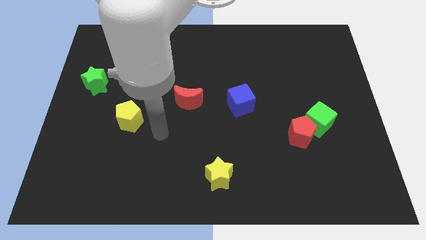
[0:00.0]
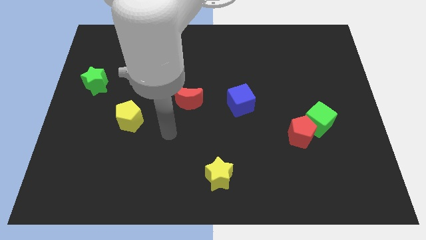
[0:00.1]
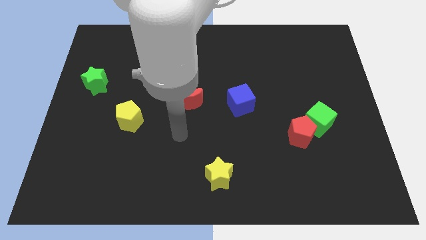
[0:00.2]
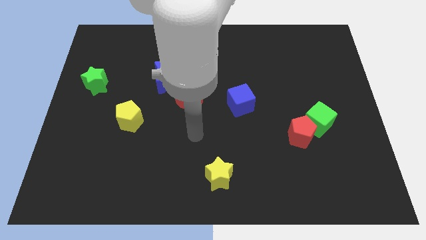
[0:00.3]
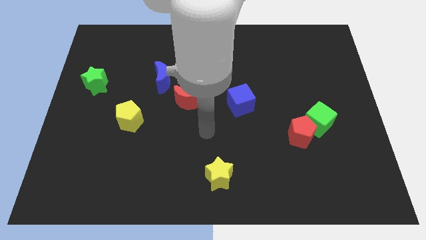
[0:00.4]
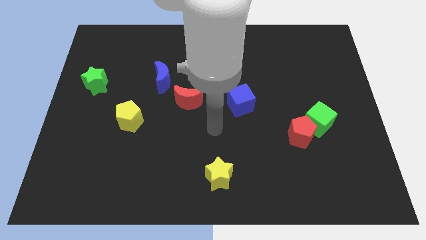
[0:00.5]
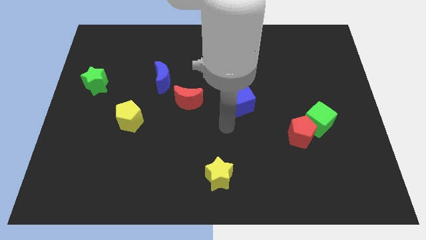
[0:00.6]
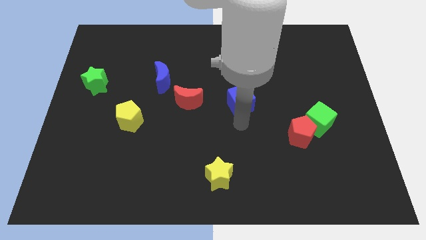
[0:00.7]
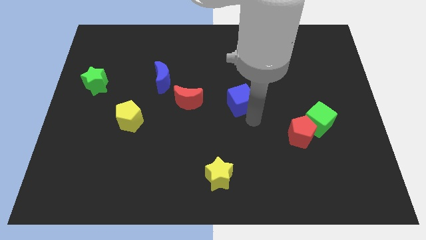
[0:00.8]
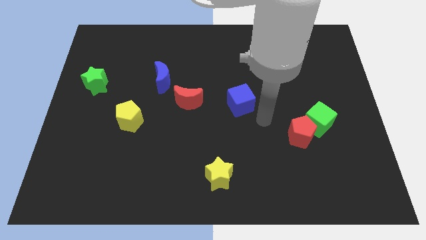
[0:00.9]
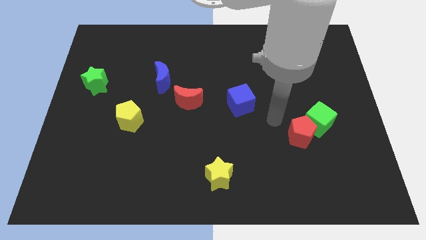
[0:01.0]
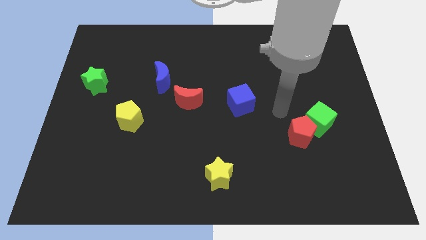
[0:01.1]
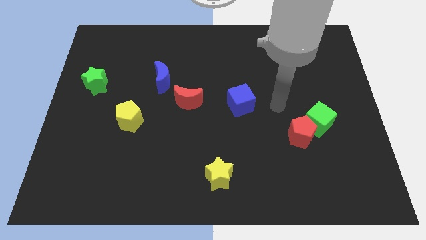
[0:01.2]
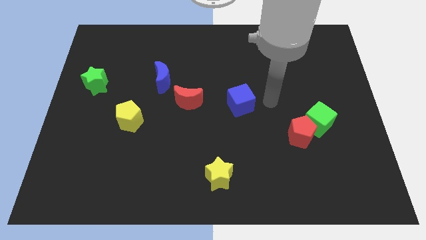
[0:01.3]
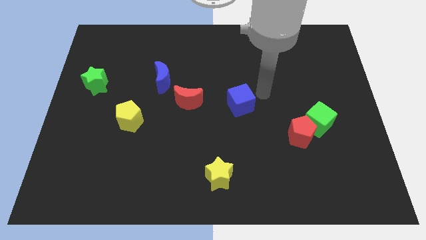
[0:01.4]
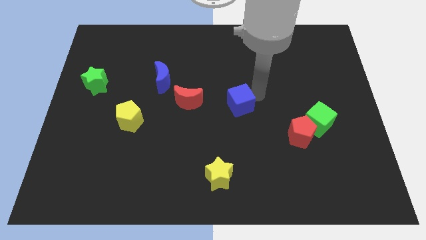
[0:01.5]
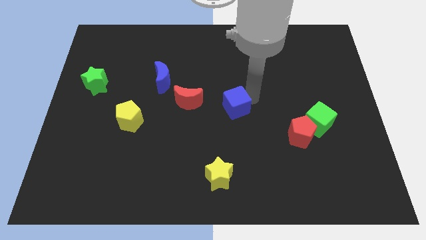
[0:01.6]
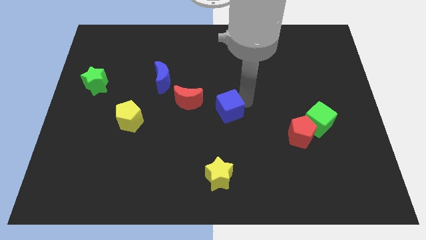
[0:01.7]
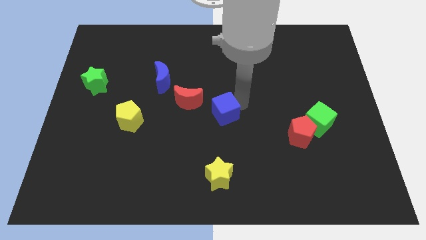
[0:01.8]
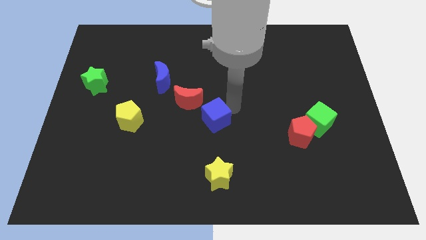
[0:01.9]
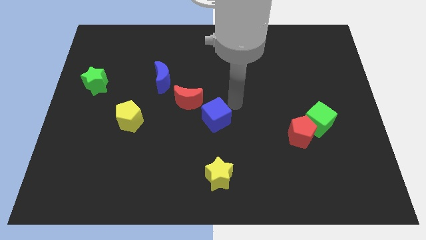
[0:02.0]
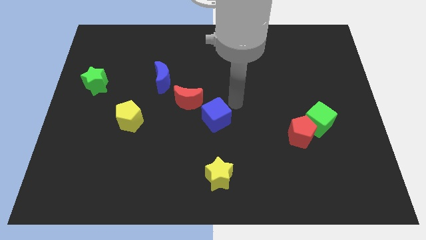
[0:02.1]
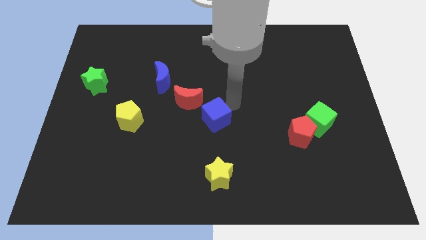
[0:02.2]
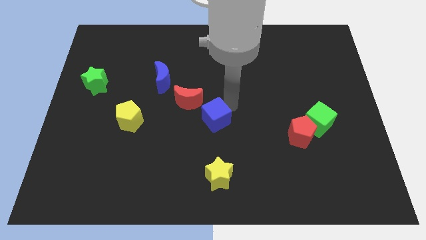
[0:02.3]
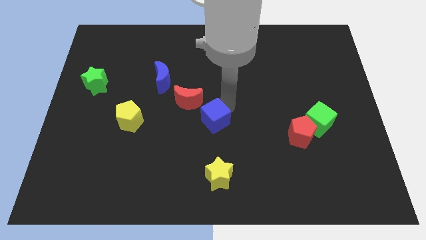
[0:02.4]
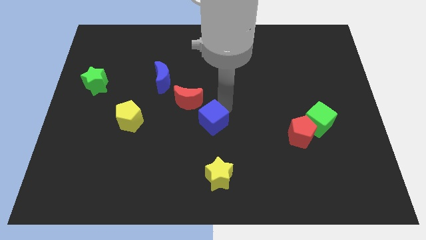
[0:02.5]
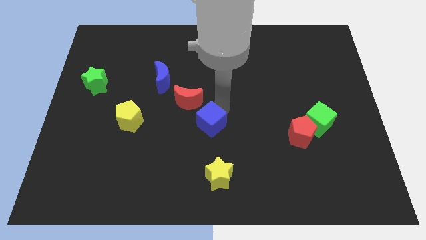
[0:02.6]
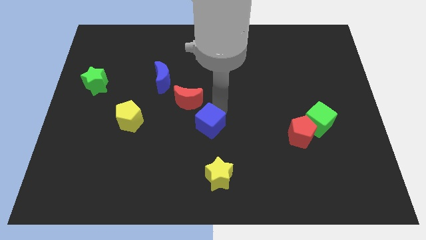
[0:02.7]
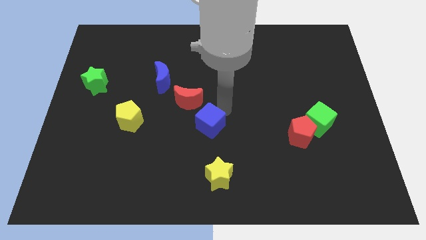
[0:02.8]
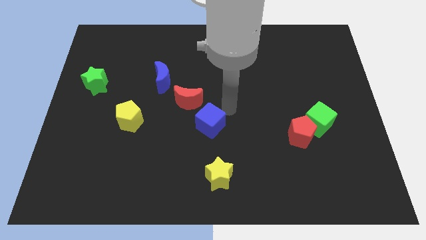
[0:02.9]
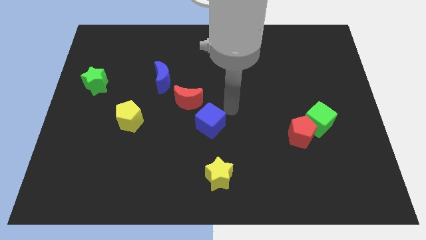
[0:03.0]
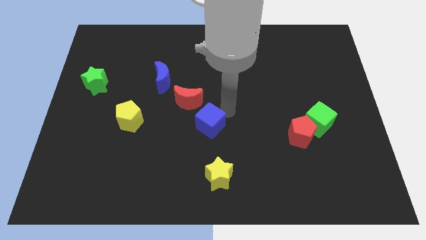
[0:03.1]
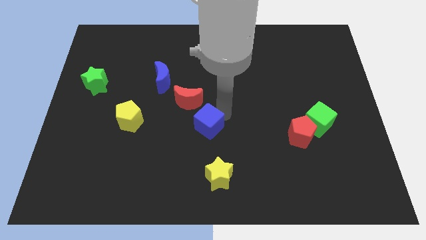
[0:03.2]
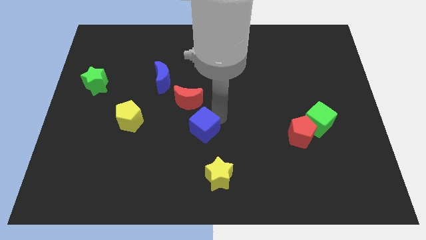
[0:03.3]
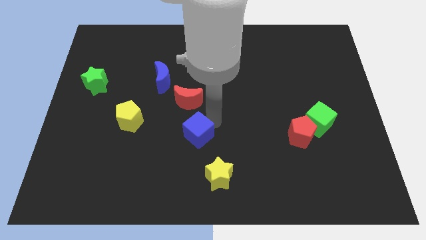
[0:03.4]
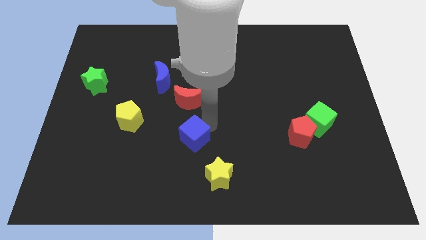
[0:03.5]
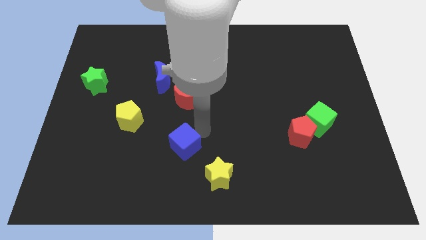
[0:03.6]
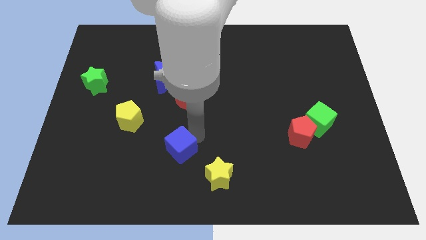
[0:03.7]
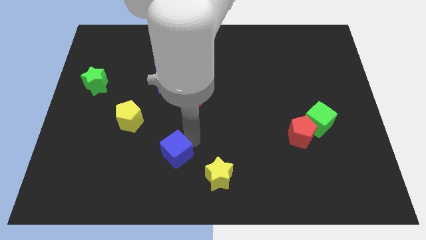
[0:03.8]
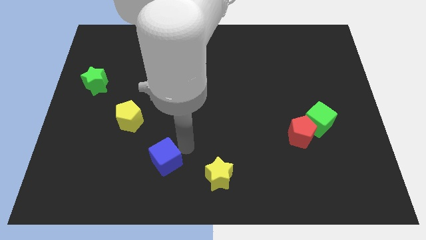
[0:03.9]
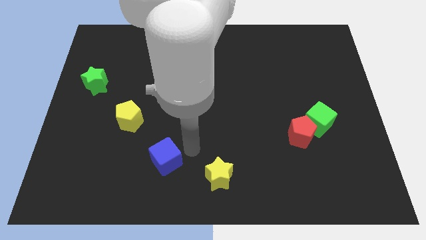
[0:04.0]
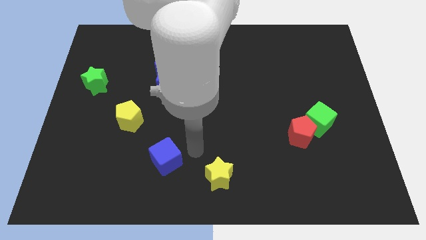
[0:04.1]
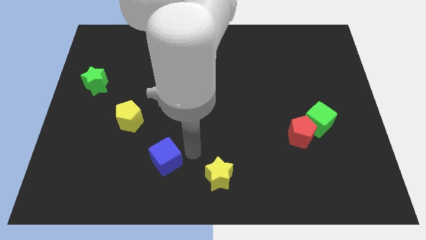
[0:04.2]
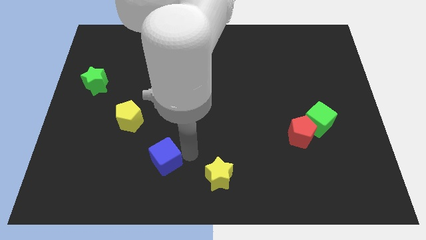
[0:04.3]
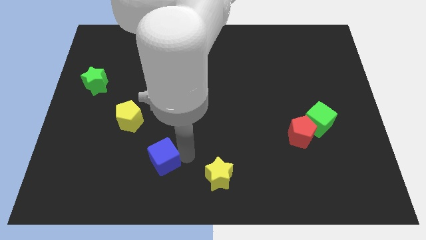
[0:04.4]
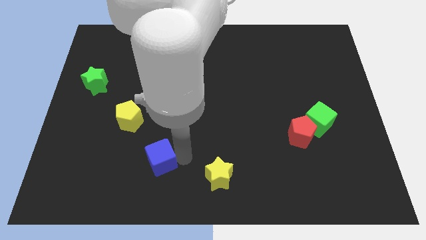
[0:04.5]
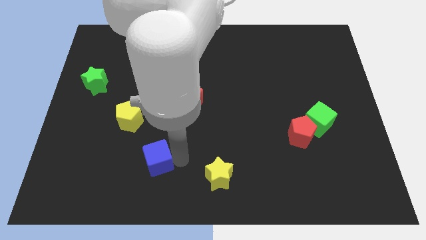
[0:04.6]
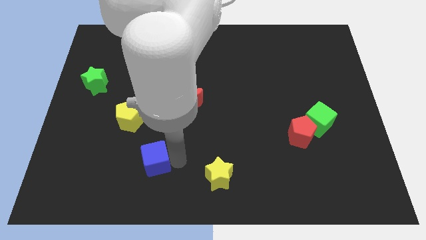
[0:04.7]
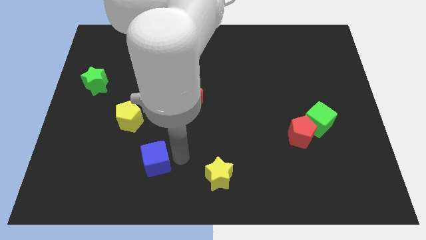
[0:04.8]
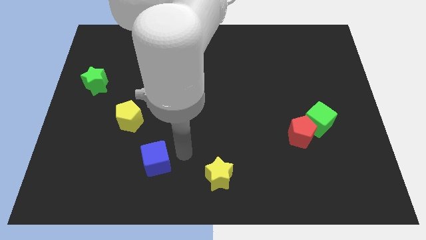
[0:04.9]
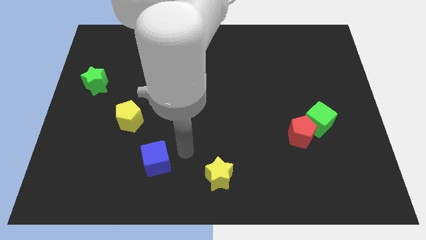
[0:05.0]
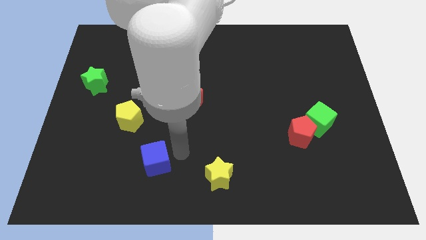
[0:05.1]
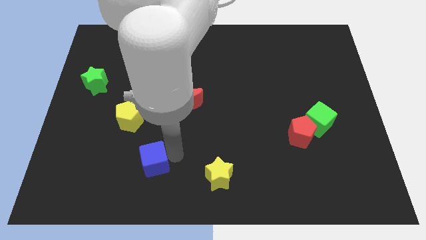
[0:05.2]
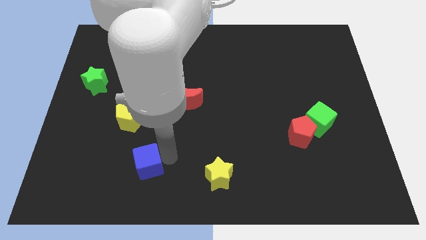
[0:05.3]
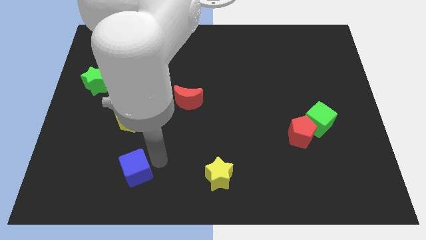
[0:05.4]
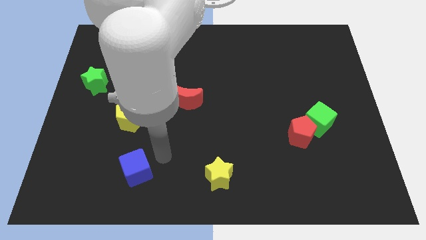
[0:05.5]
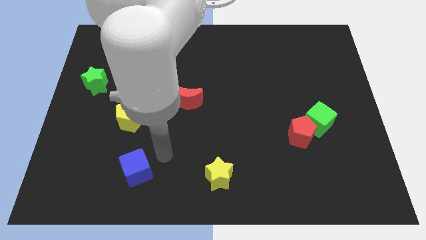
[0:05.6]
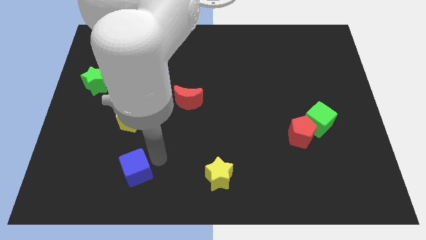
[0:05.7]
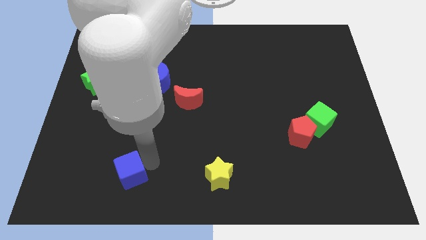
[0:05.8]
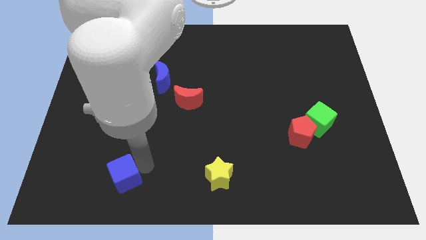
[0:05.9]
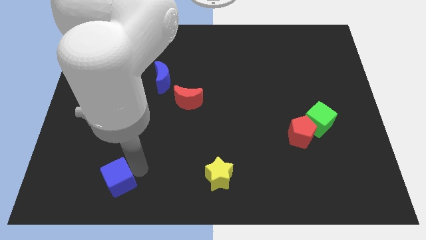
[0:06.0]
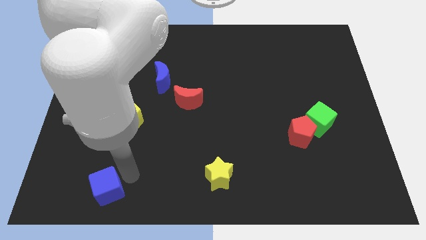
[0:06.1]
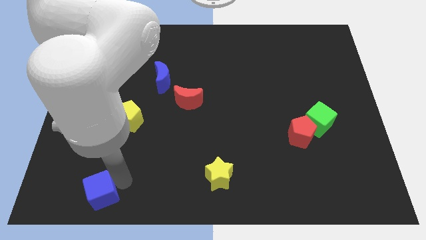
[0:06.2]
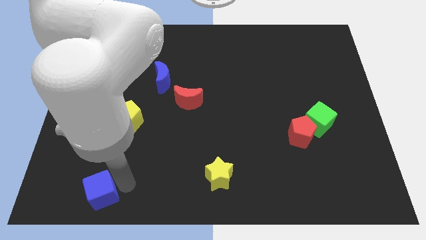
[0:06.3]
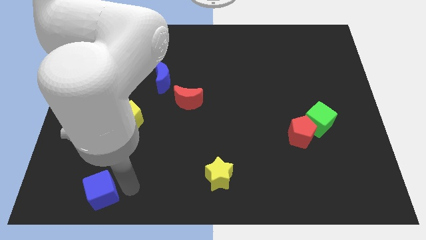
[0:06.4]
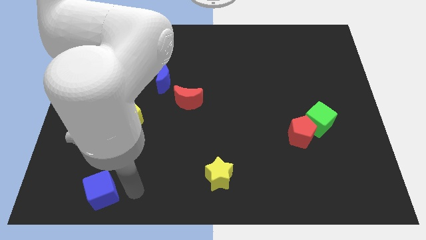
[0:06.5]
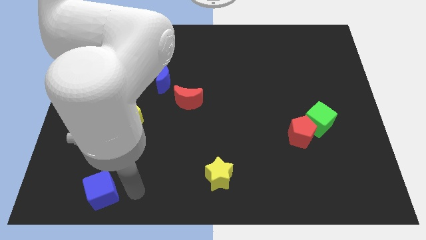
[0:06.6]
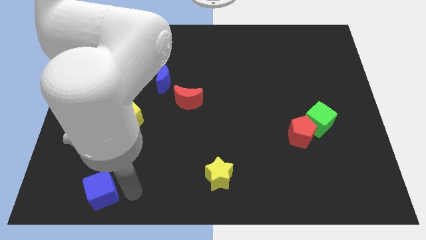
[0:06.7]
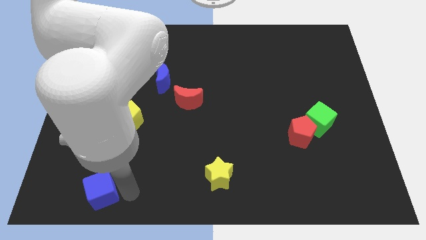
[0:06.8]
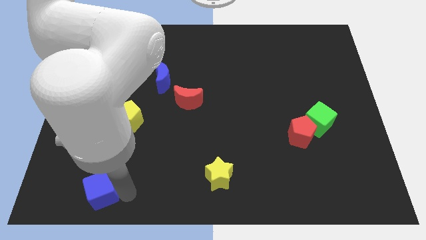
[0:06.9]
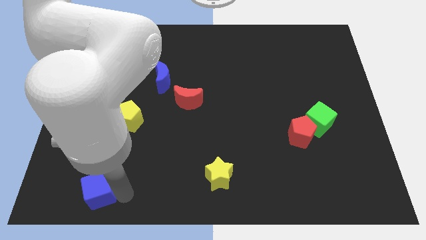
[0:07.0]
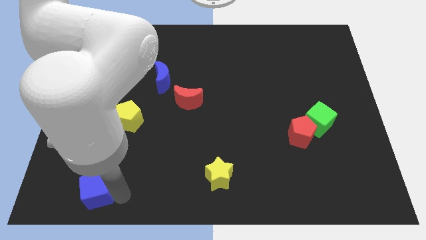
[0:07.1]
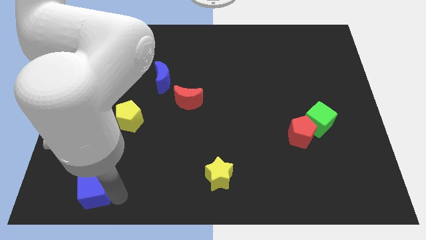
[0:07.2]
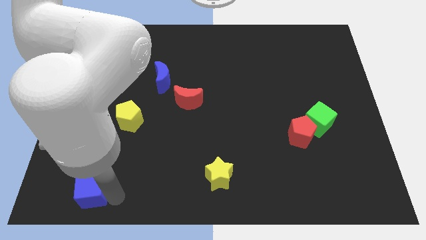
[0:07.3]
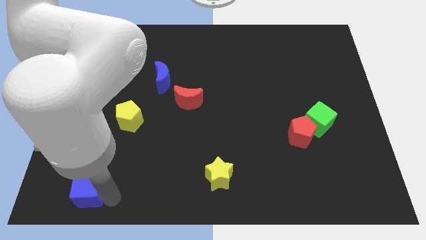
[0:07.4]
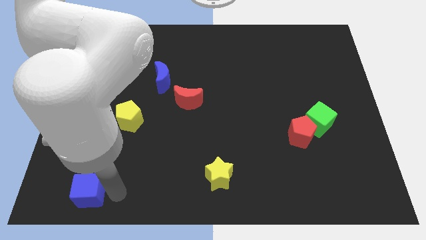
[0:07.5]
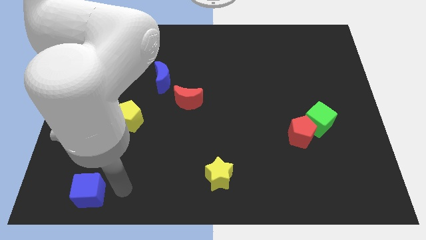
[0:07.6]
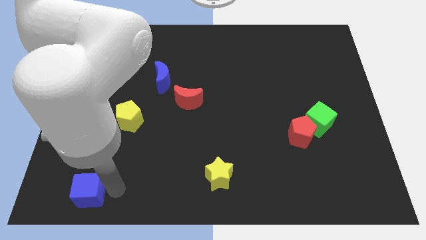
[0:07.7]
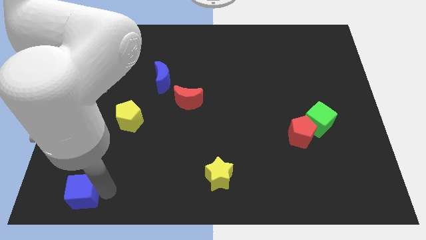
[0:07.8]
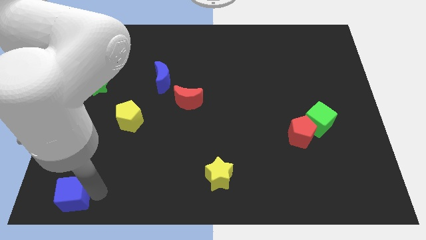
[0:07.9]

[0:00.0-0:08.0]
push the blue cube to the bottom left
